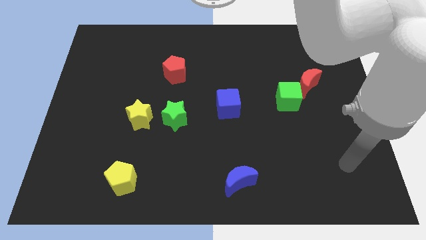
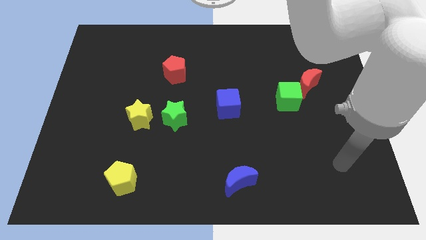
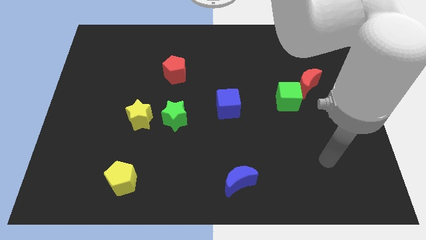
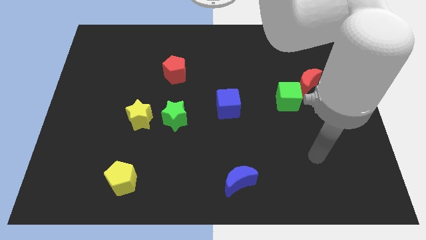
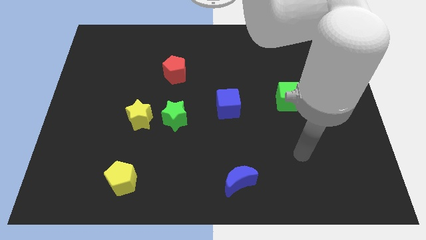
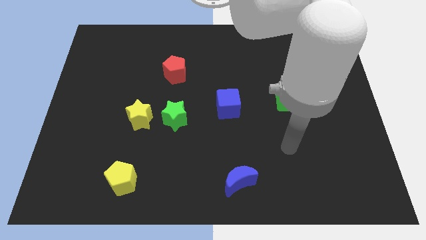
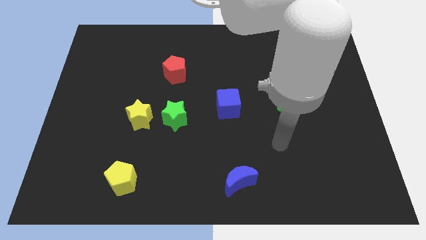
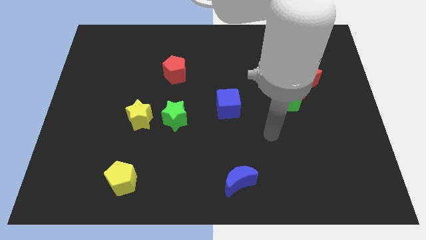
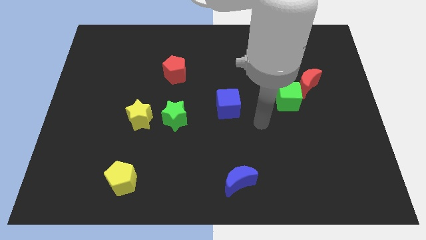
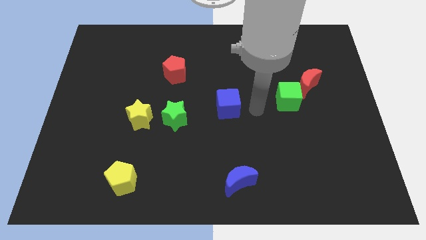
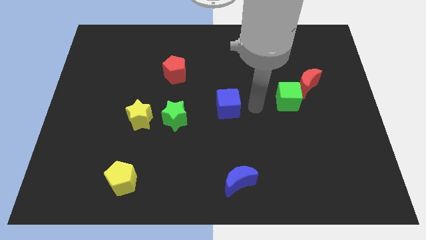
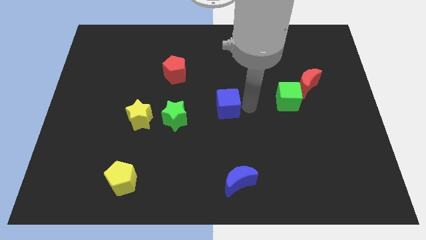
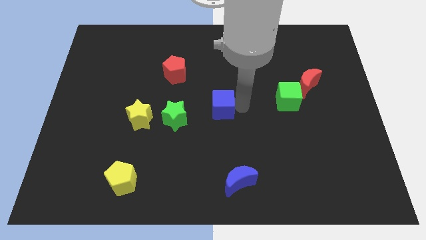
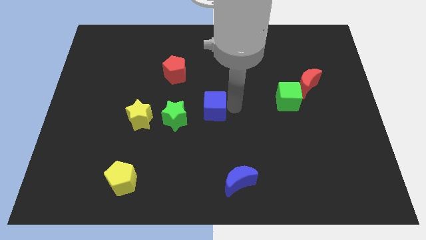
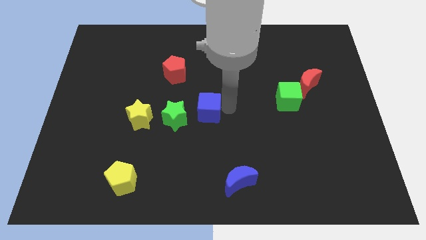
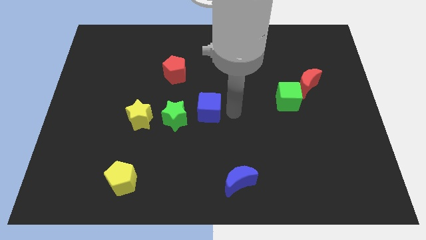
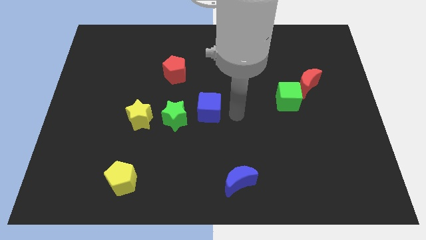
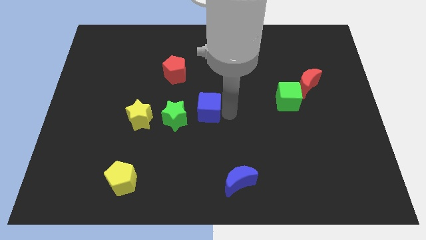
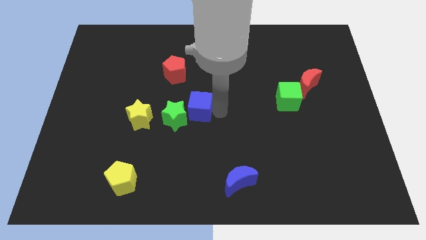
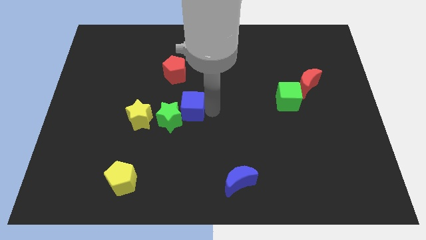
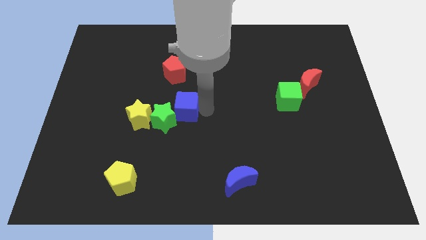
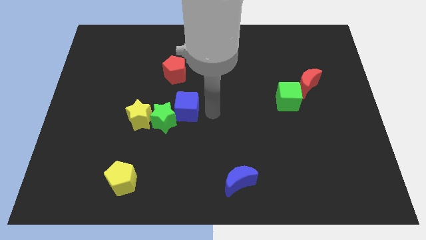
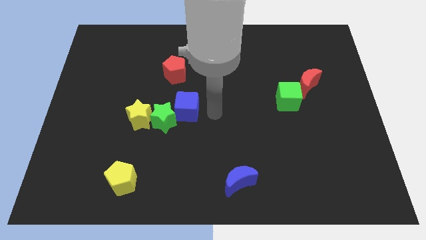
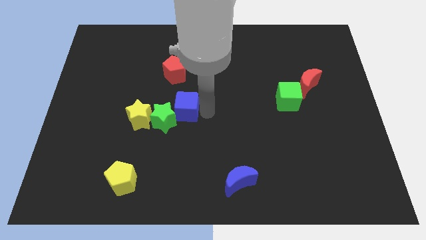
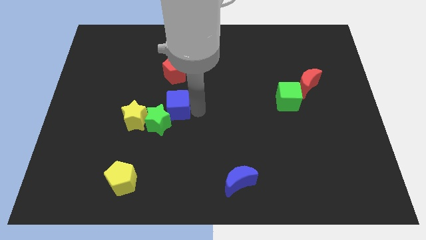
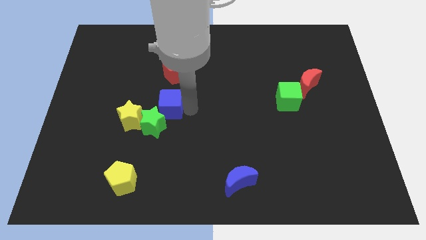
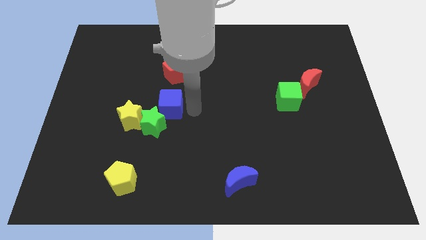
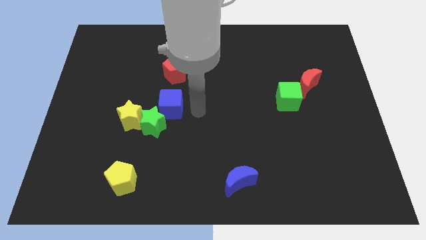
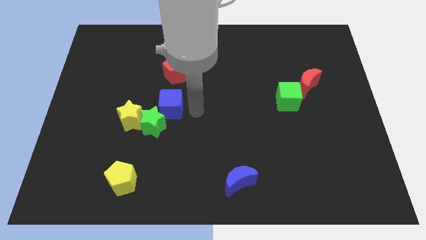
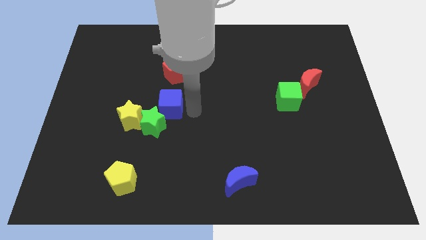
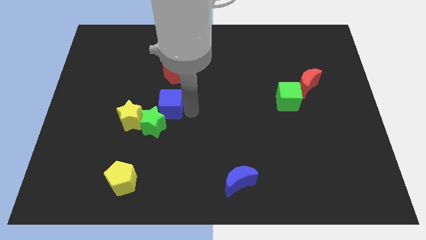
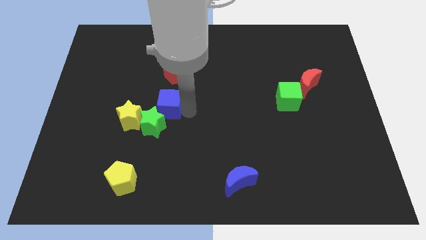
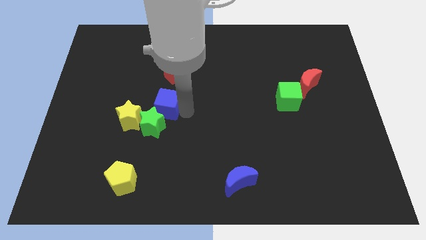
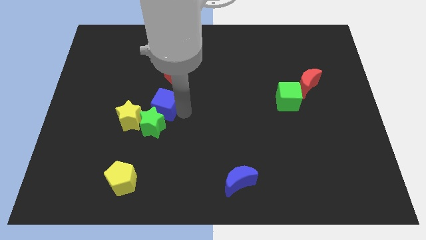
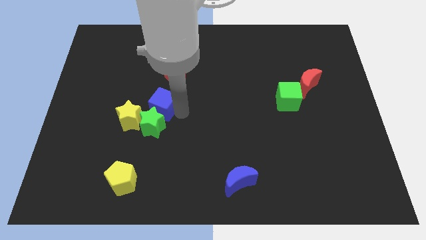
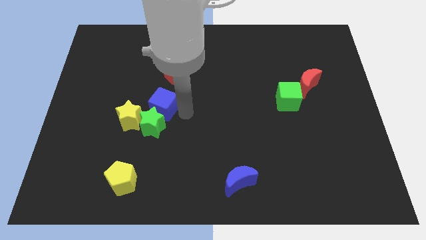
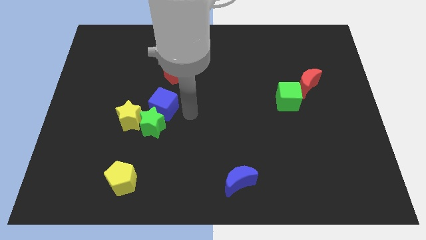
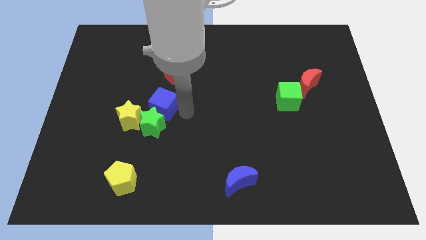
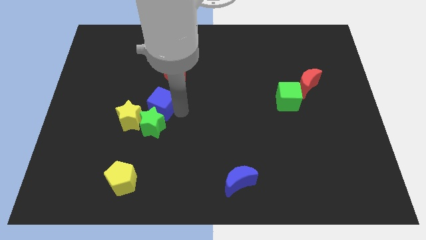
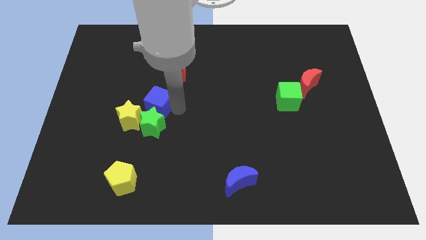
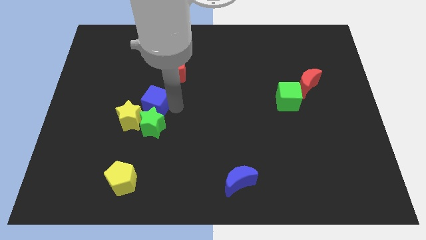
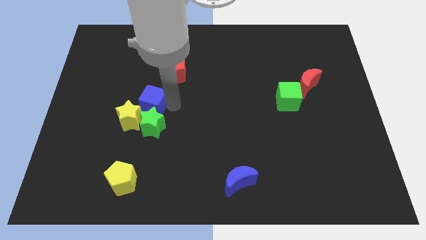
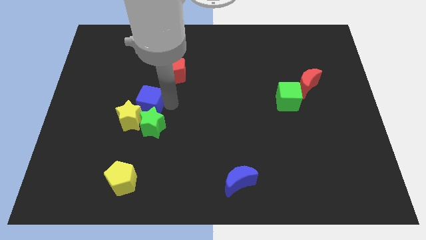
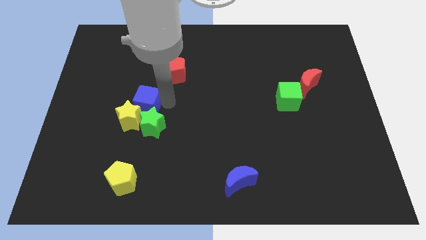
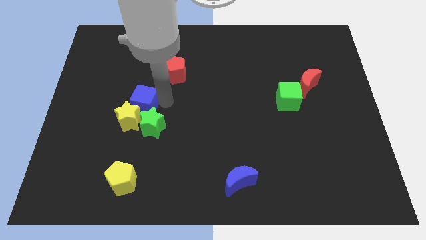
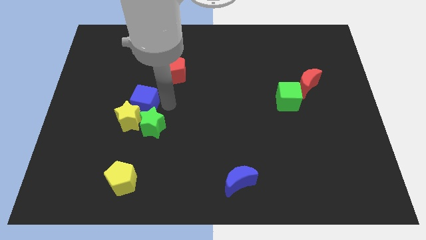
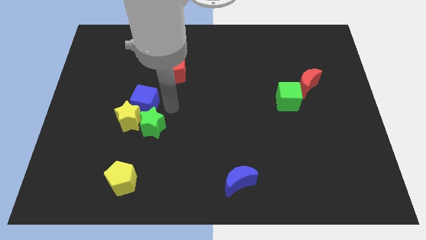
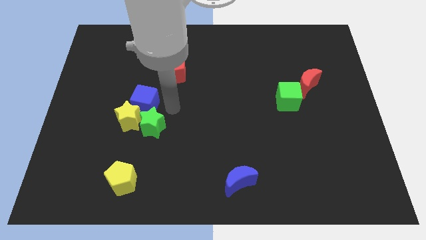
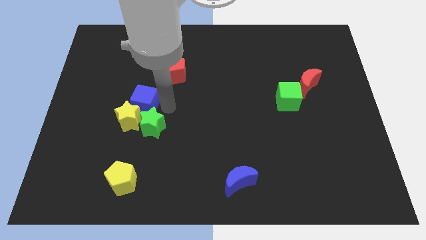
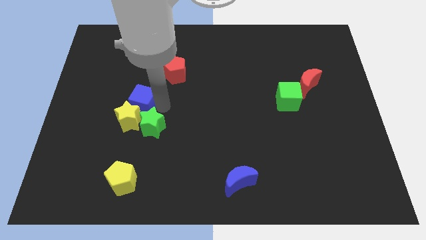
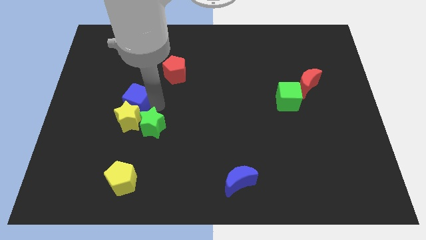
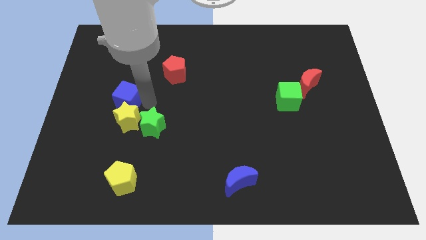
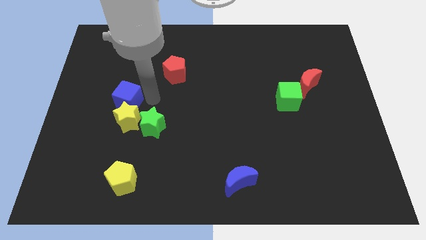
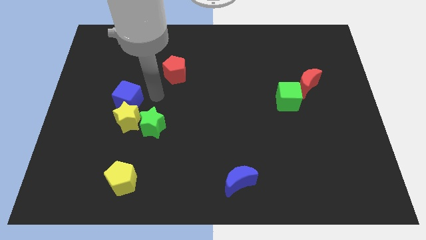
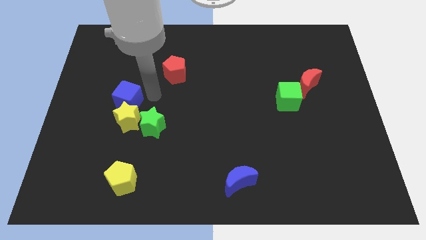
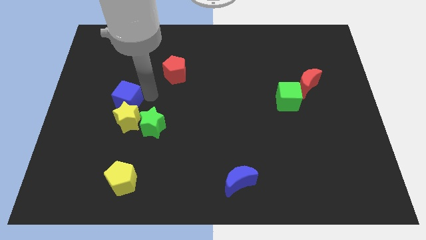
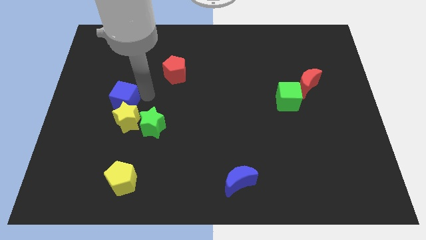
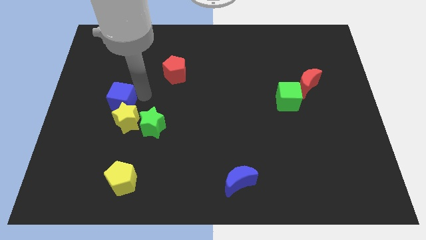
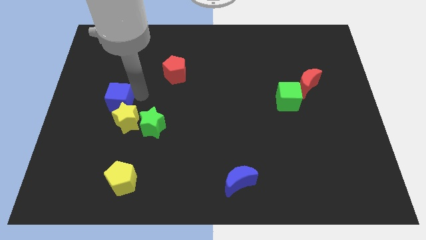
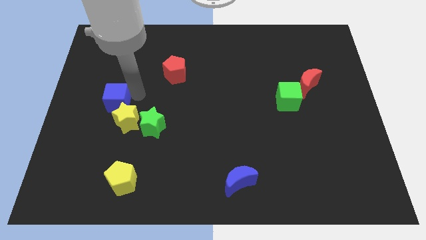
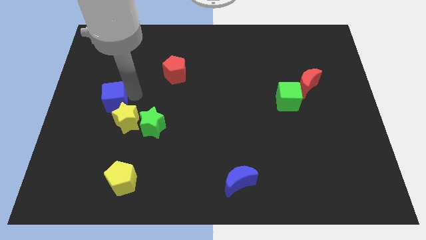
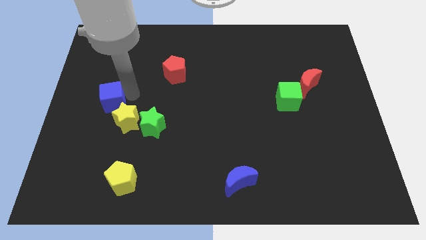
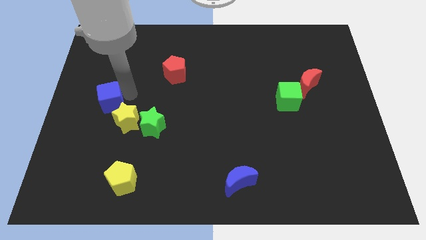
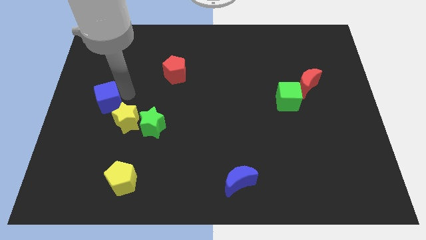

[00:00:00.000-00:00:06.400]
put the blue cube to the center left
